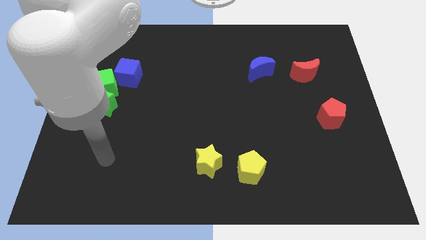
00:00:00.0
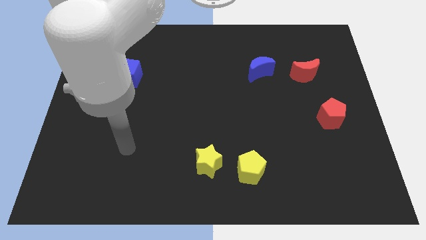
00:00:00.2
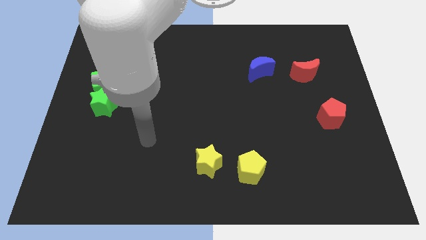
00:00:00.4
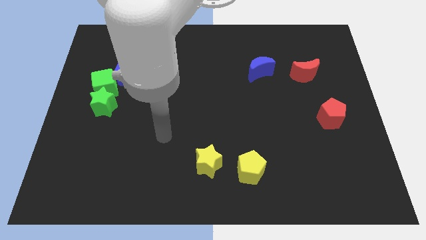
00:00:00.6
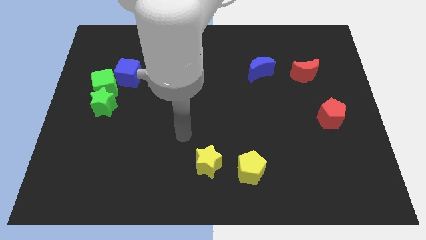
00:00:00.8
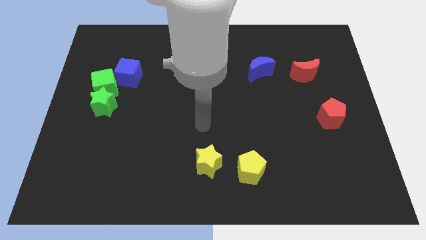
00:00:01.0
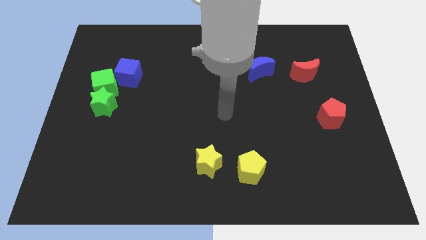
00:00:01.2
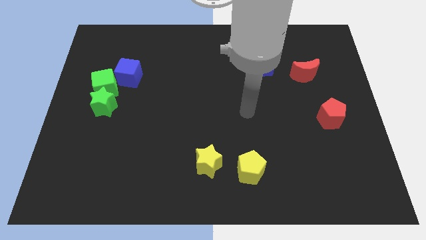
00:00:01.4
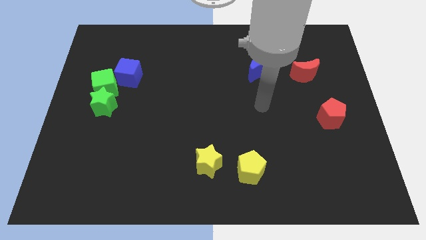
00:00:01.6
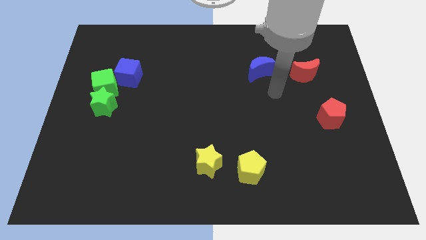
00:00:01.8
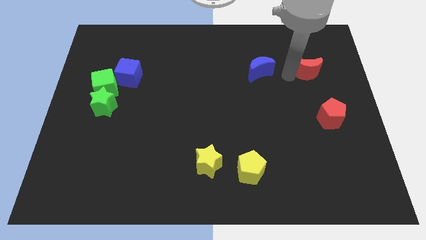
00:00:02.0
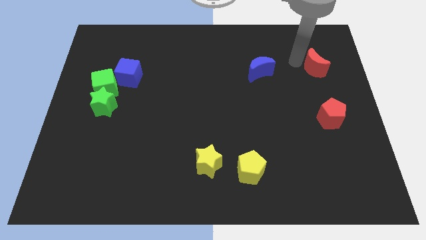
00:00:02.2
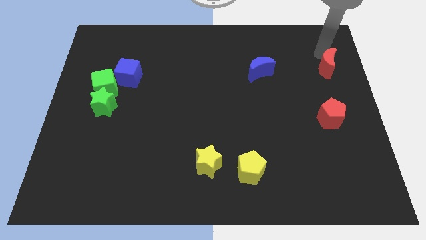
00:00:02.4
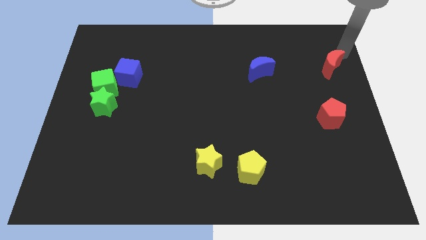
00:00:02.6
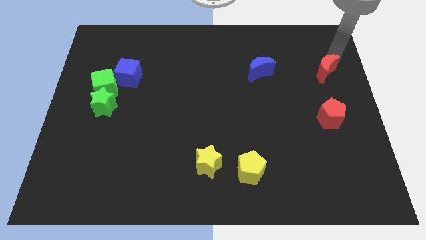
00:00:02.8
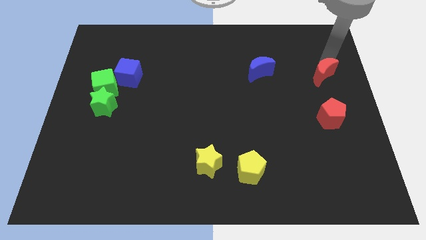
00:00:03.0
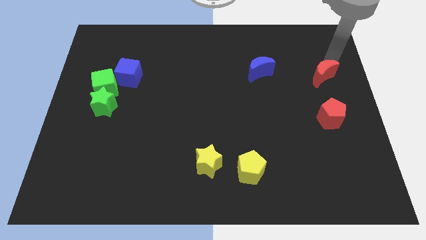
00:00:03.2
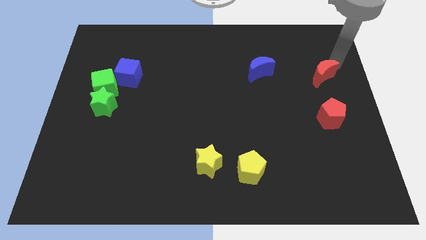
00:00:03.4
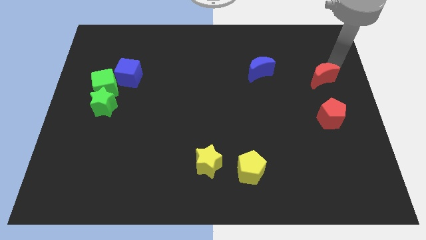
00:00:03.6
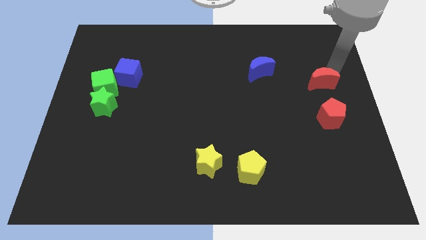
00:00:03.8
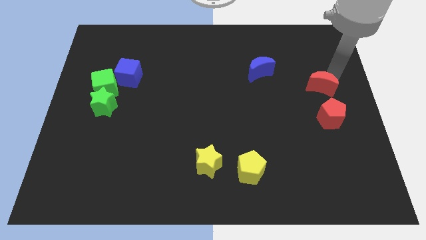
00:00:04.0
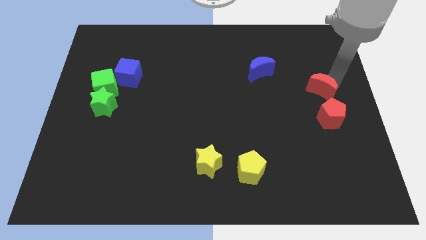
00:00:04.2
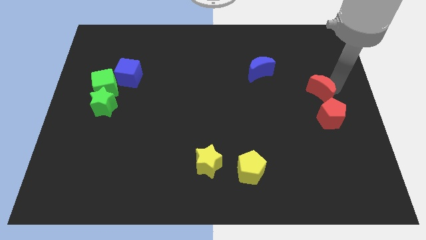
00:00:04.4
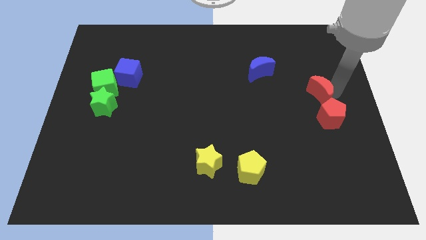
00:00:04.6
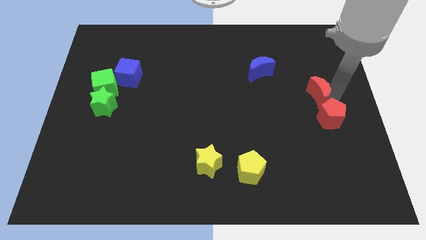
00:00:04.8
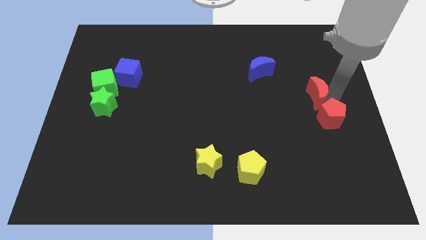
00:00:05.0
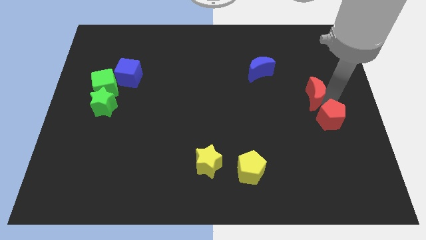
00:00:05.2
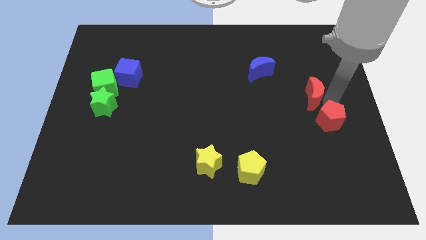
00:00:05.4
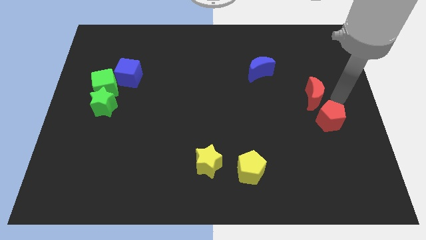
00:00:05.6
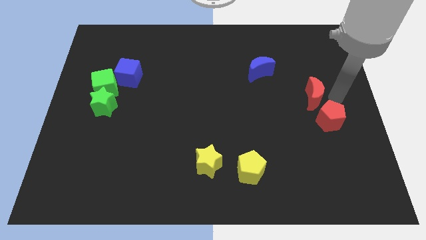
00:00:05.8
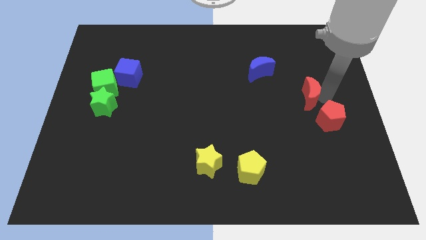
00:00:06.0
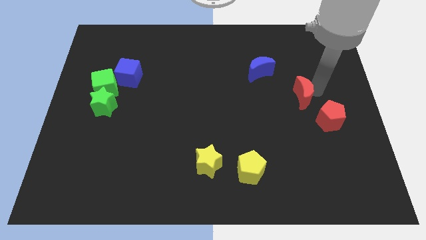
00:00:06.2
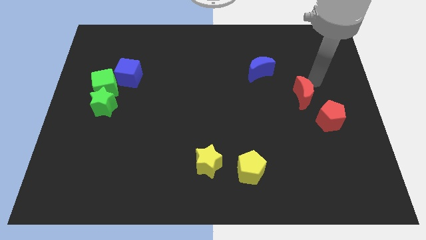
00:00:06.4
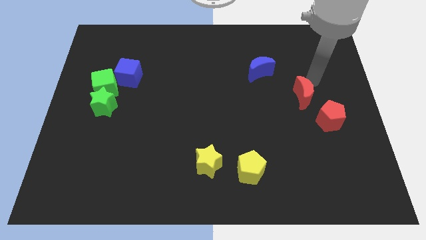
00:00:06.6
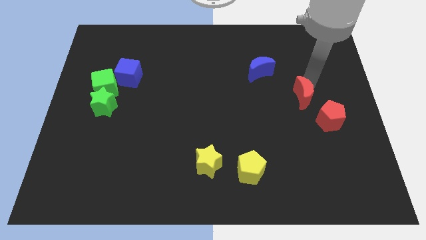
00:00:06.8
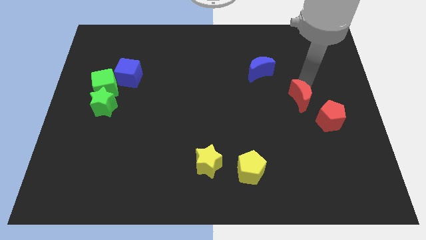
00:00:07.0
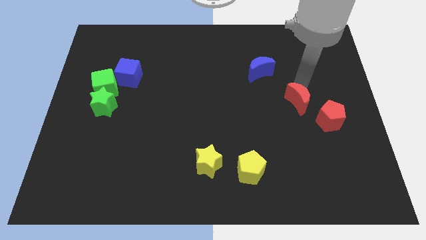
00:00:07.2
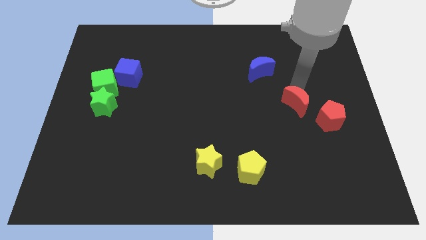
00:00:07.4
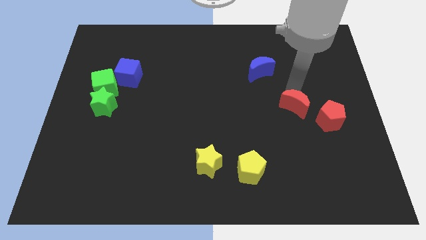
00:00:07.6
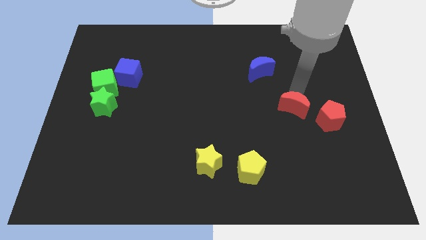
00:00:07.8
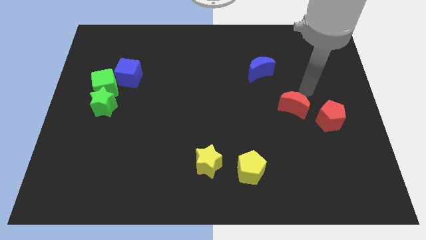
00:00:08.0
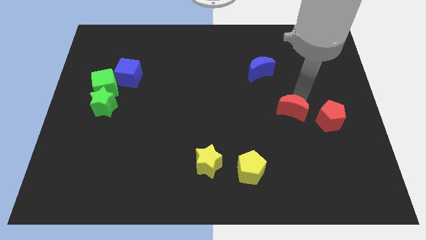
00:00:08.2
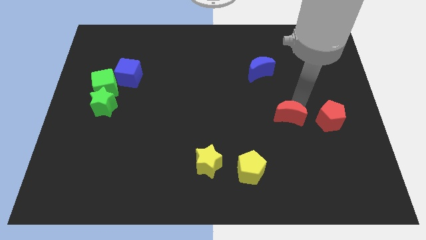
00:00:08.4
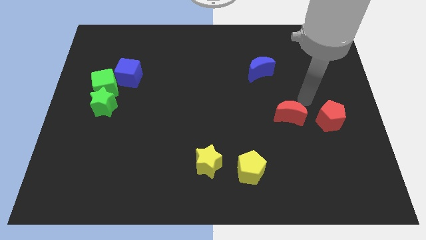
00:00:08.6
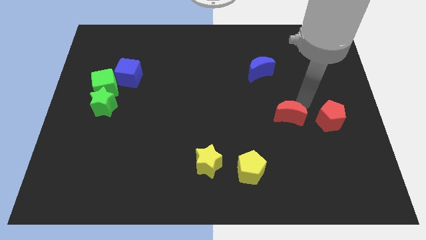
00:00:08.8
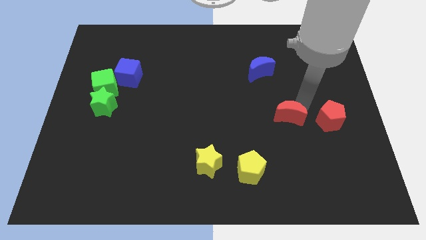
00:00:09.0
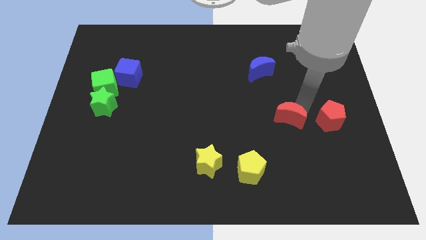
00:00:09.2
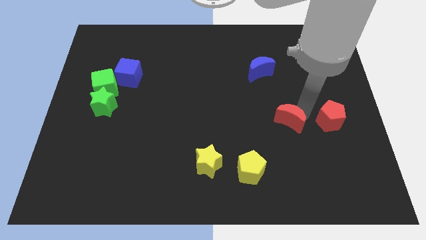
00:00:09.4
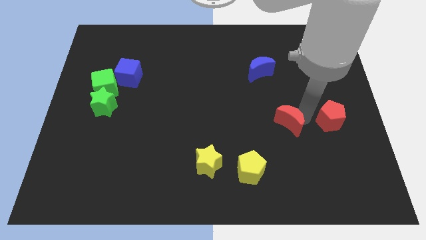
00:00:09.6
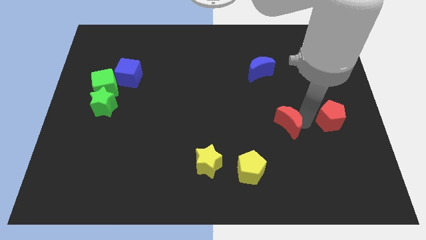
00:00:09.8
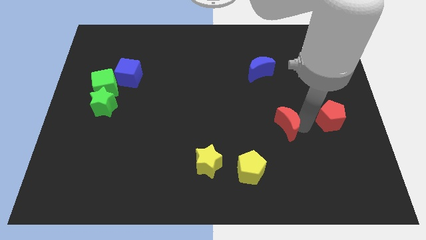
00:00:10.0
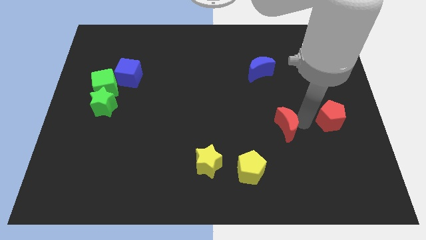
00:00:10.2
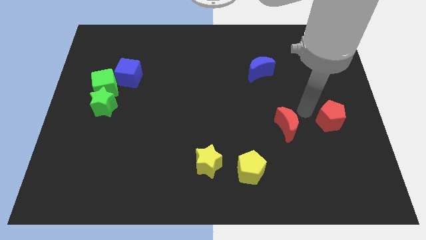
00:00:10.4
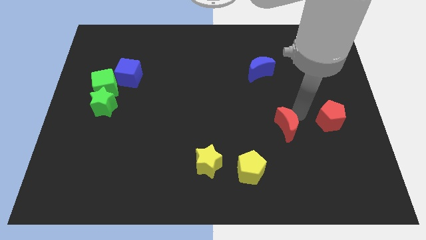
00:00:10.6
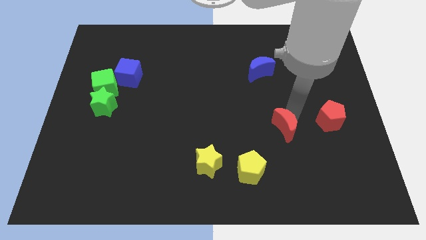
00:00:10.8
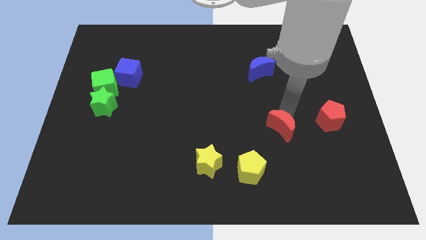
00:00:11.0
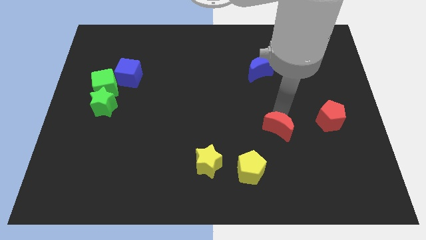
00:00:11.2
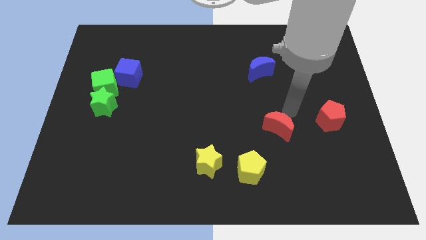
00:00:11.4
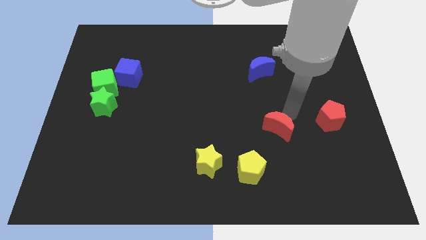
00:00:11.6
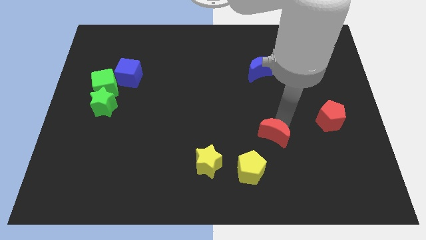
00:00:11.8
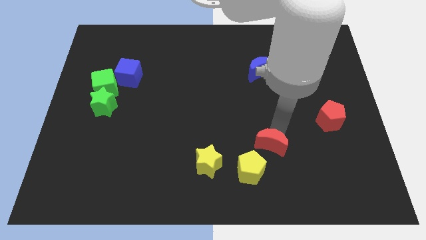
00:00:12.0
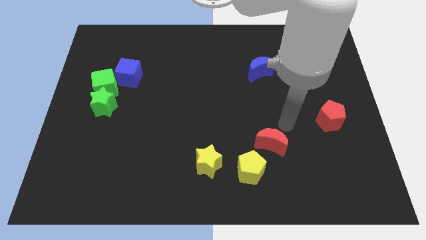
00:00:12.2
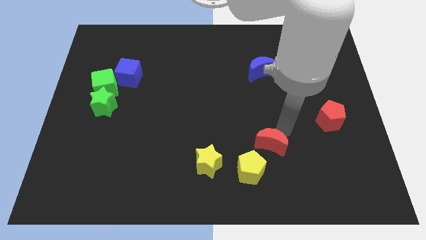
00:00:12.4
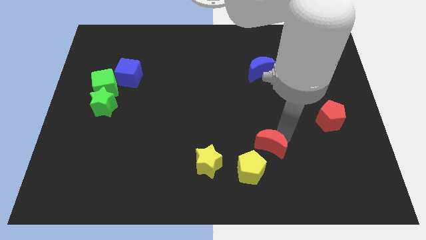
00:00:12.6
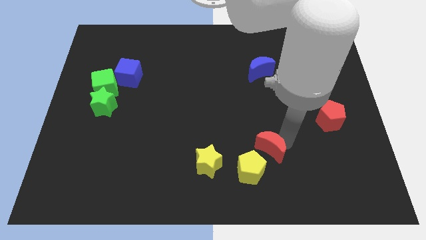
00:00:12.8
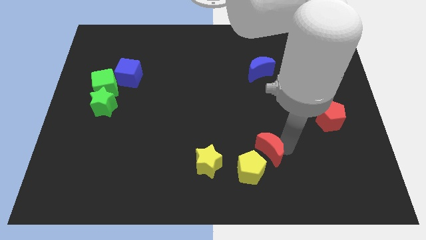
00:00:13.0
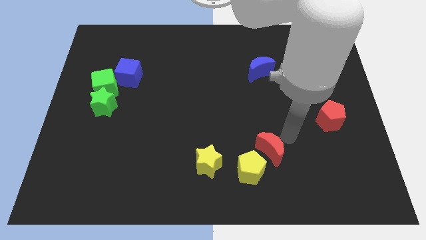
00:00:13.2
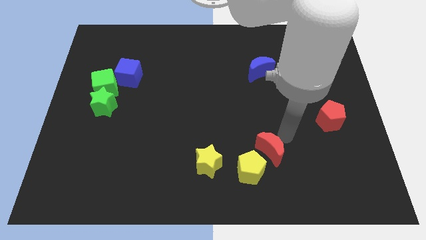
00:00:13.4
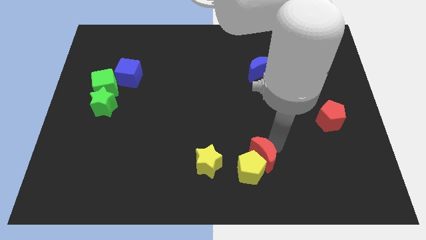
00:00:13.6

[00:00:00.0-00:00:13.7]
push the red moon towards the yellow pentagon

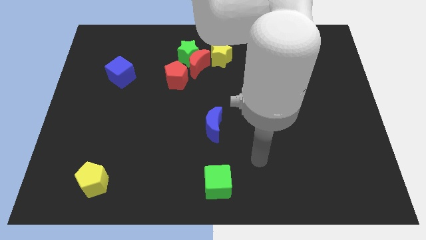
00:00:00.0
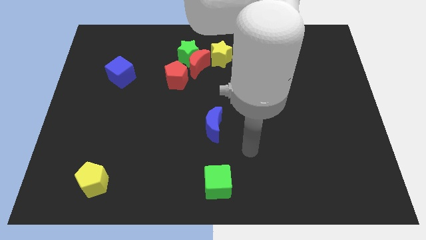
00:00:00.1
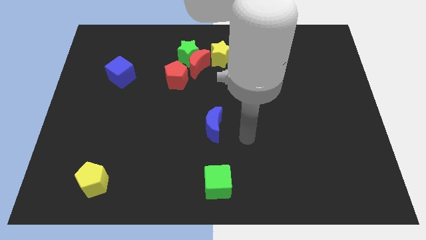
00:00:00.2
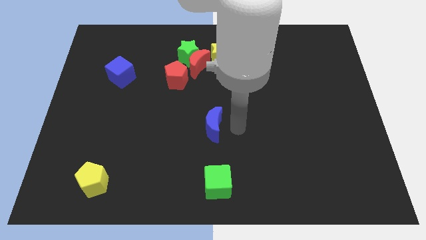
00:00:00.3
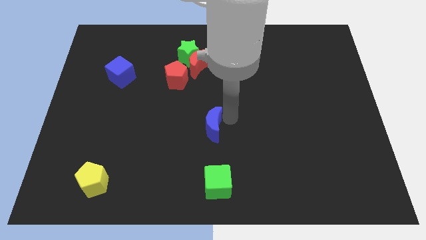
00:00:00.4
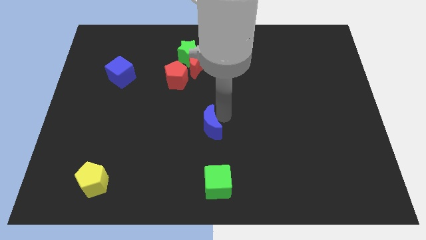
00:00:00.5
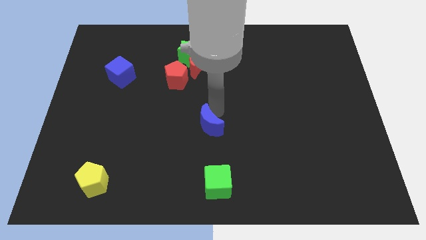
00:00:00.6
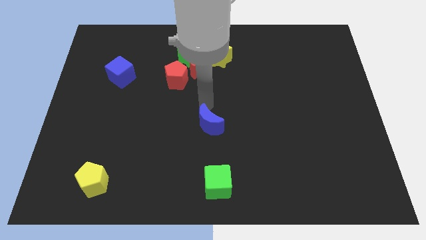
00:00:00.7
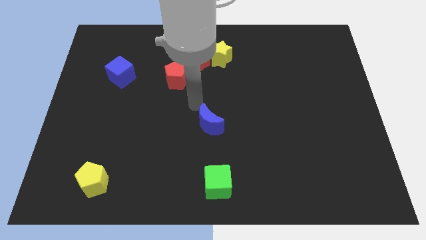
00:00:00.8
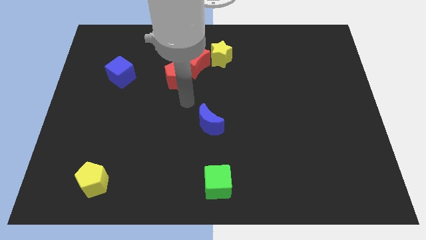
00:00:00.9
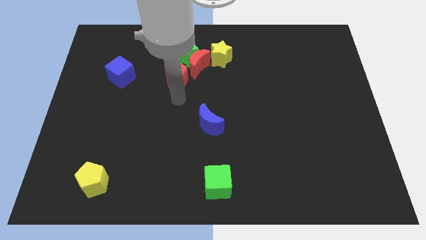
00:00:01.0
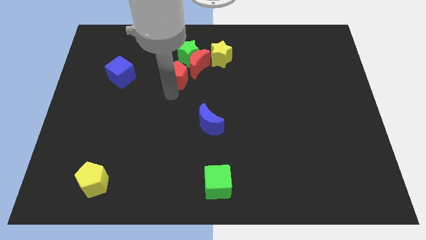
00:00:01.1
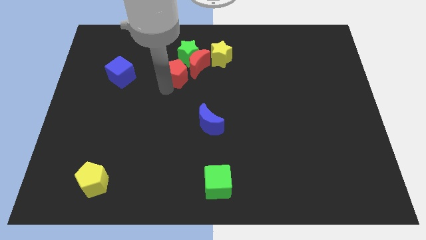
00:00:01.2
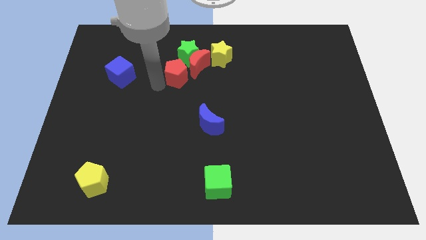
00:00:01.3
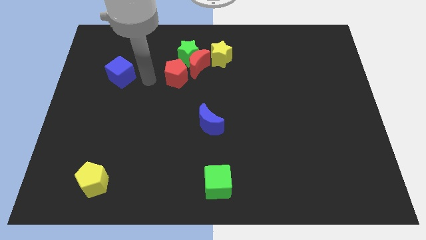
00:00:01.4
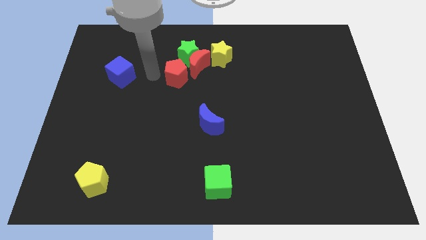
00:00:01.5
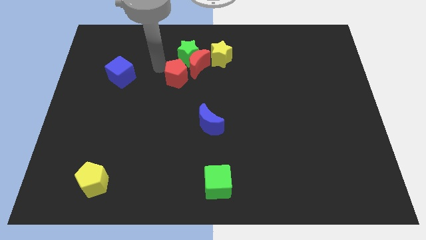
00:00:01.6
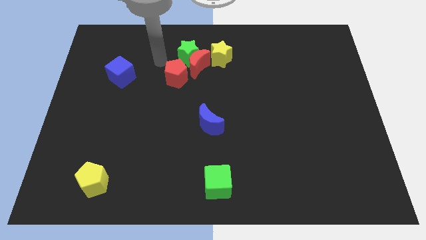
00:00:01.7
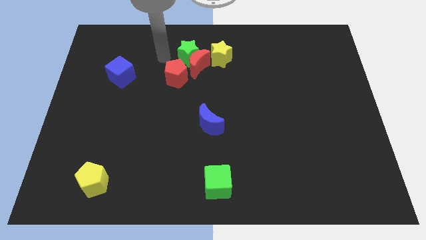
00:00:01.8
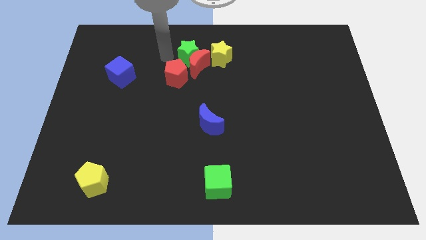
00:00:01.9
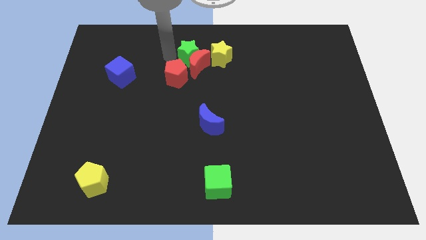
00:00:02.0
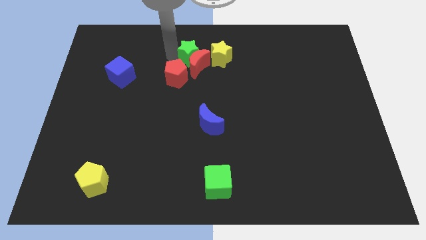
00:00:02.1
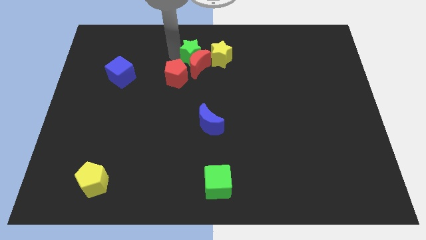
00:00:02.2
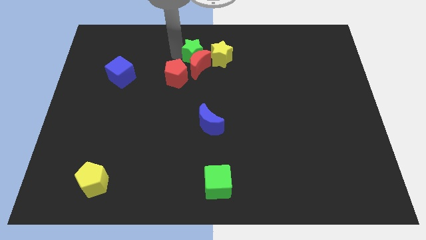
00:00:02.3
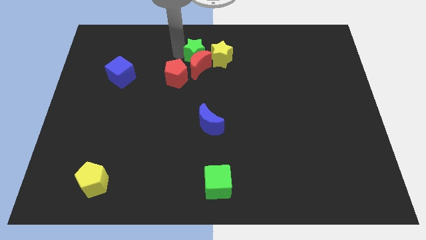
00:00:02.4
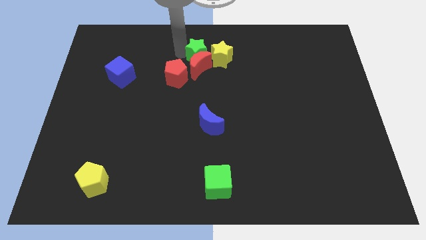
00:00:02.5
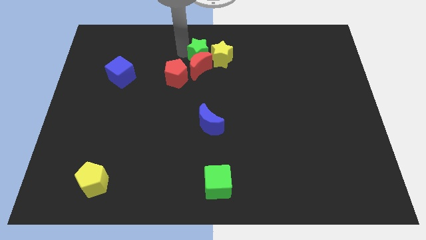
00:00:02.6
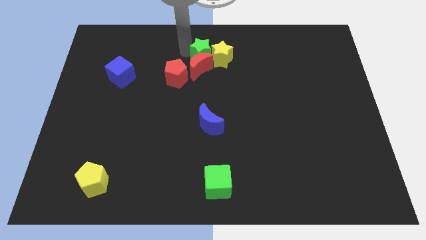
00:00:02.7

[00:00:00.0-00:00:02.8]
slide the green star next to the yellow star
